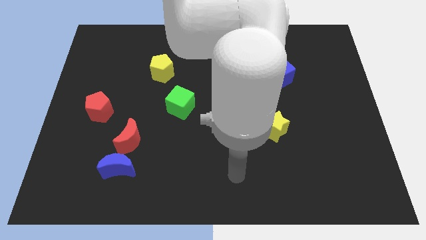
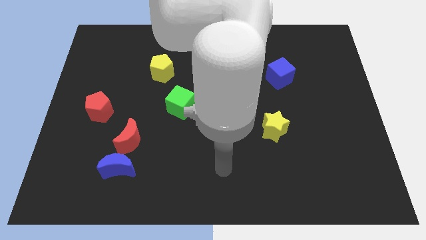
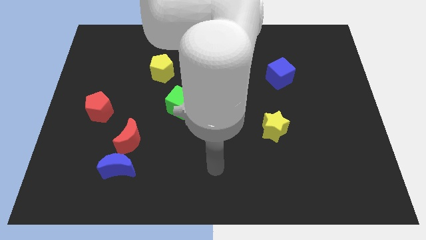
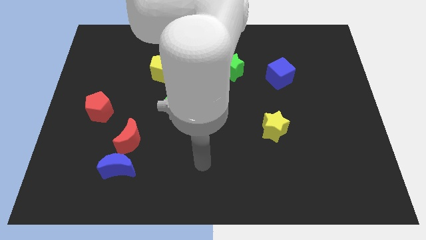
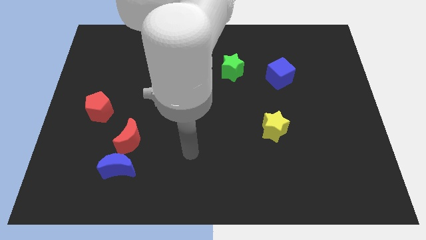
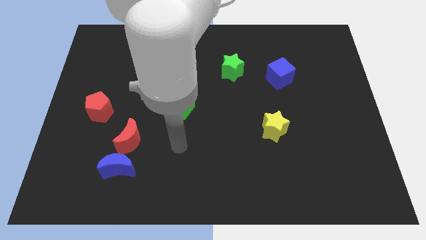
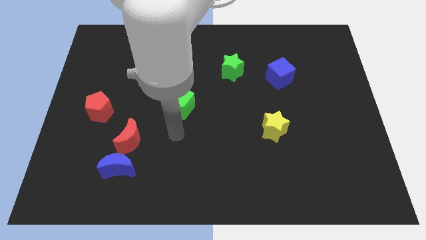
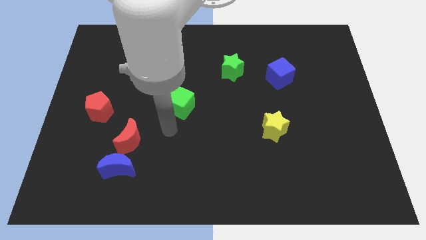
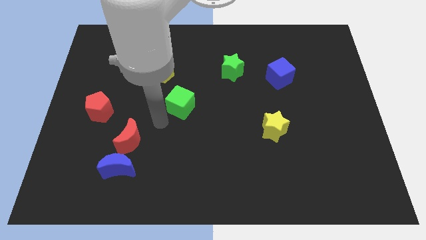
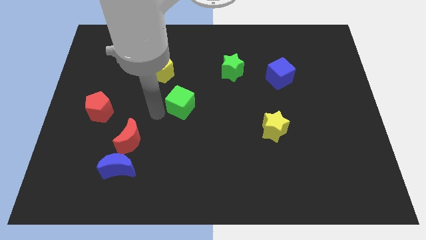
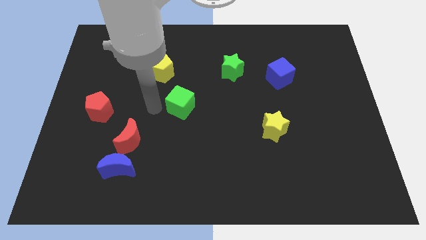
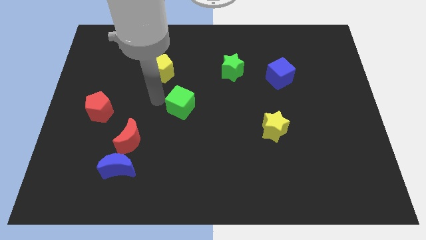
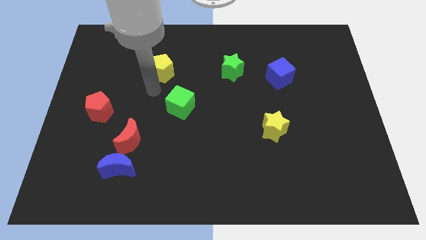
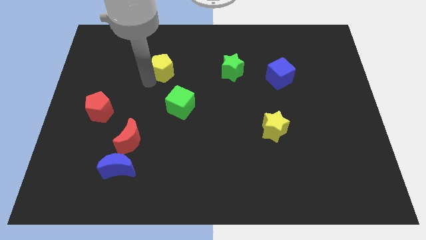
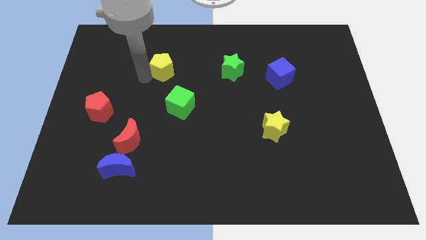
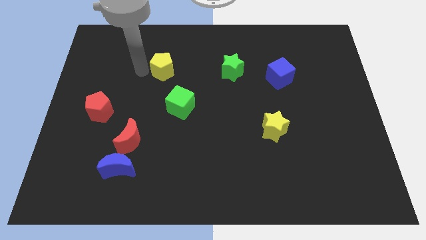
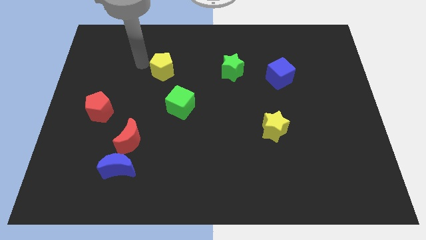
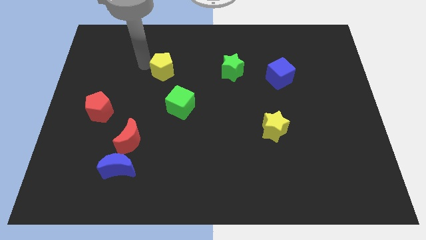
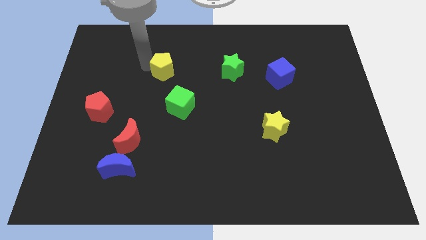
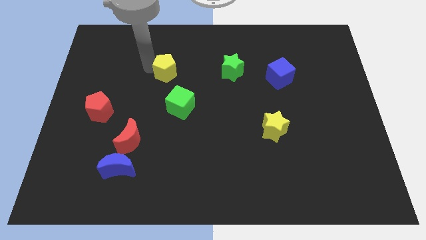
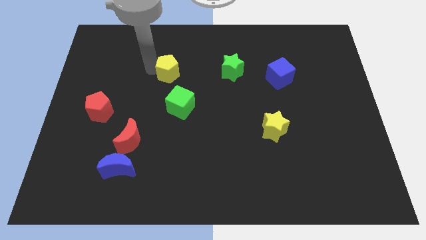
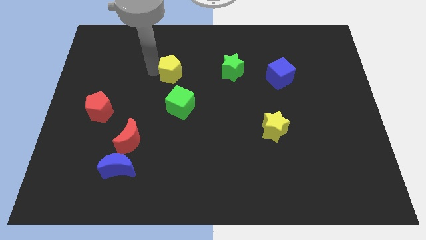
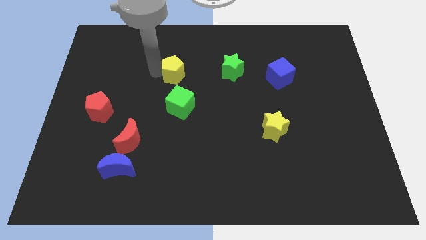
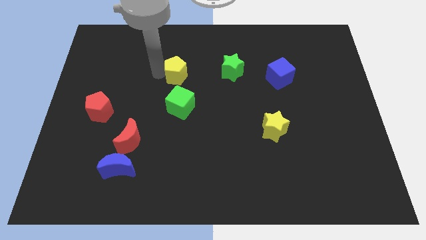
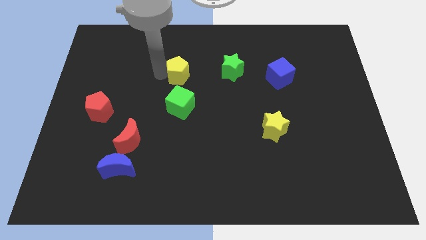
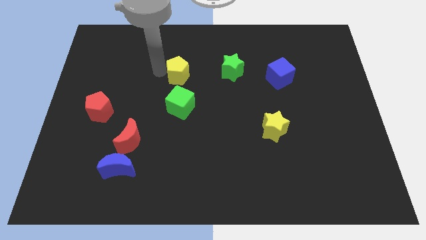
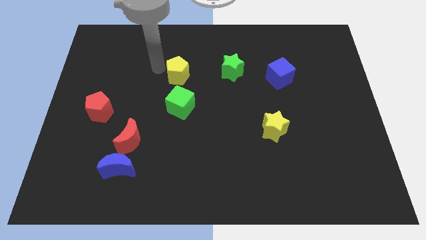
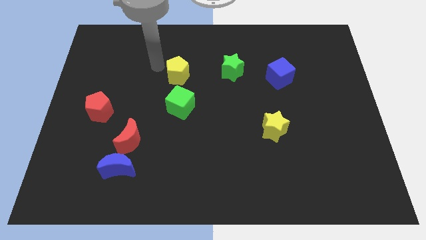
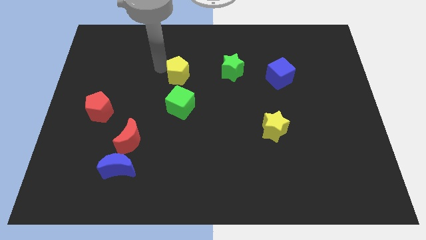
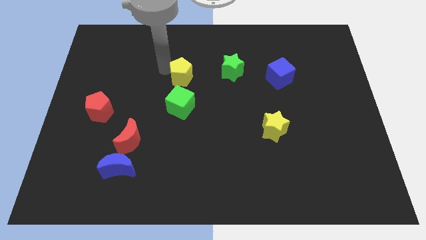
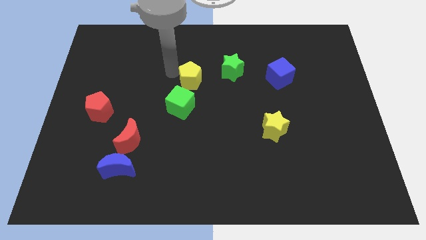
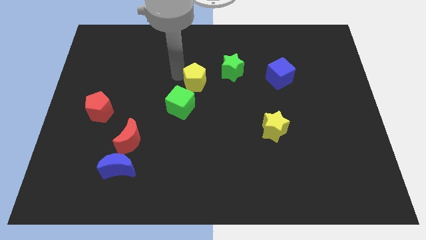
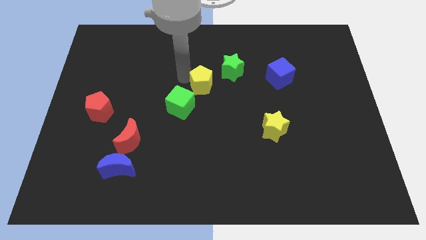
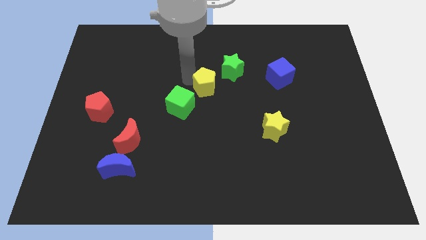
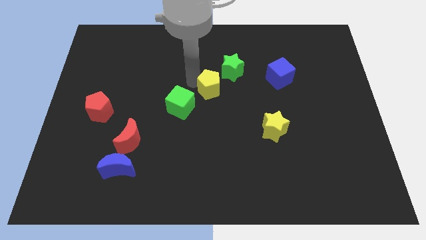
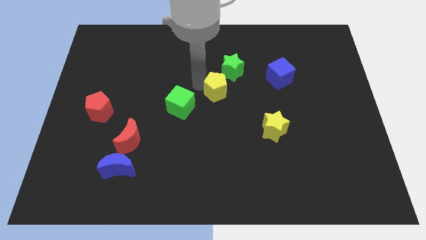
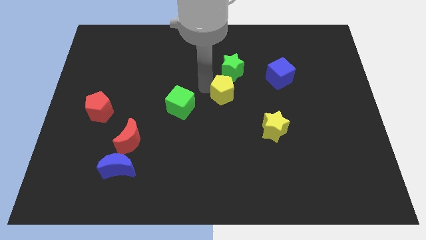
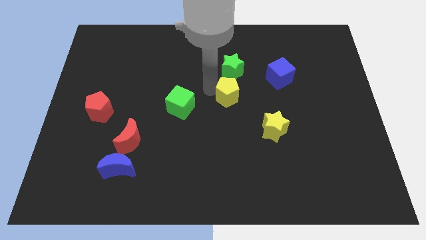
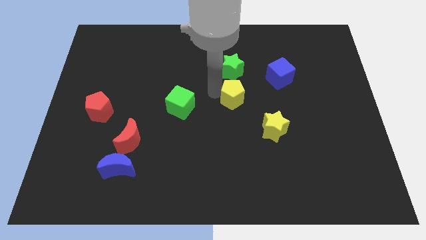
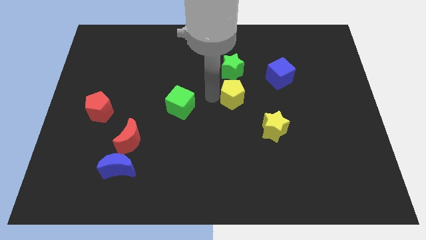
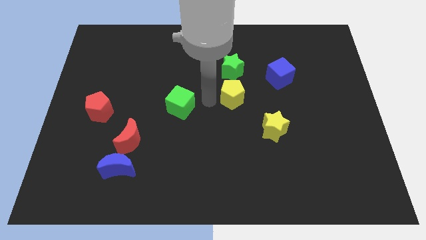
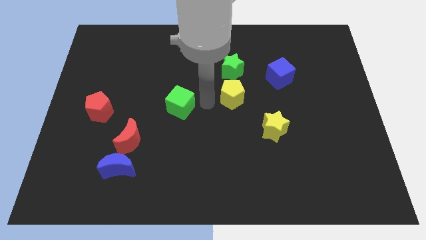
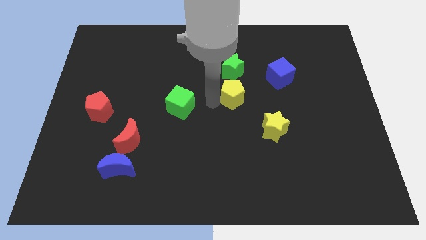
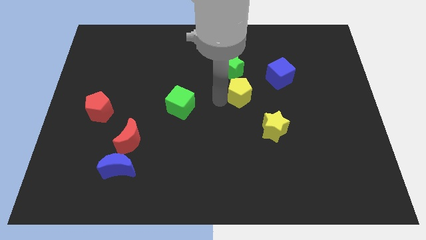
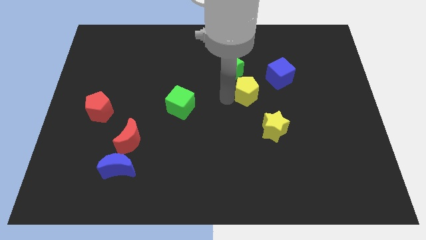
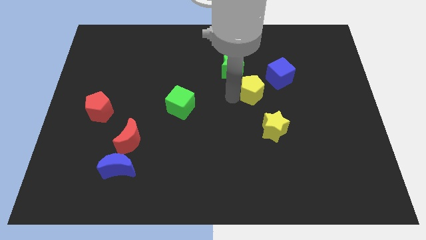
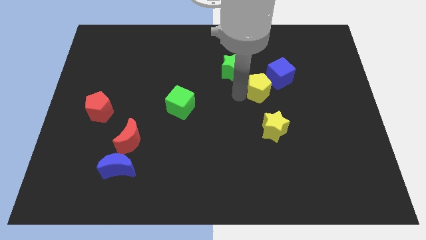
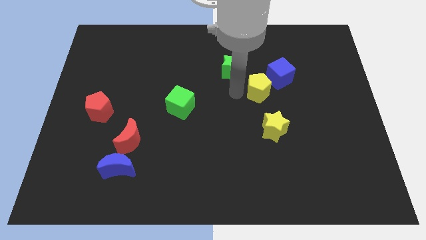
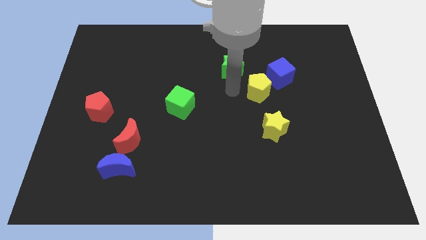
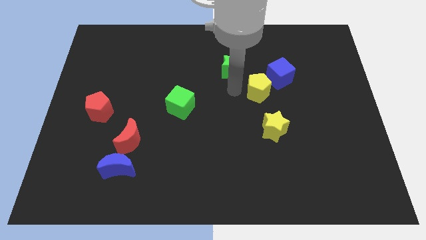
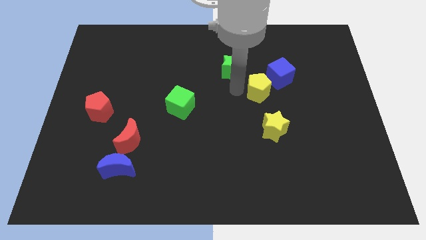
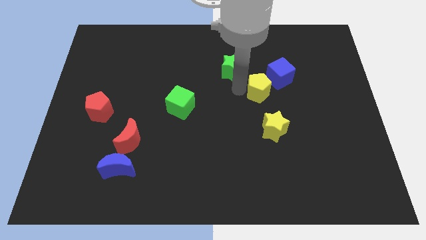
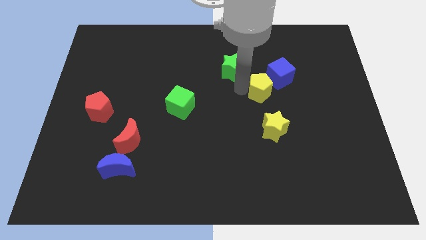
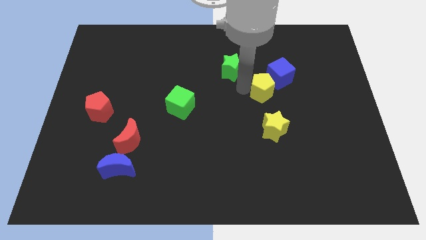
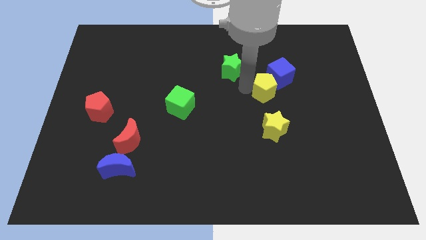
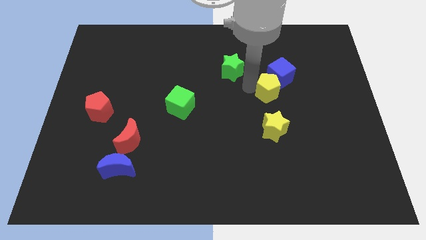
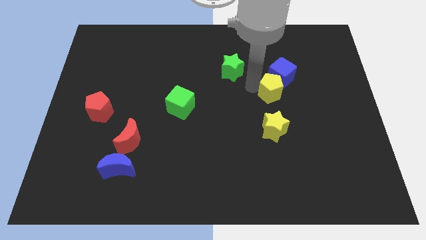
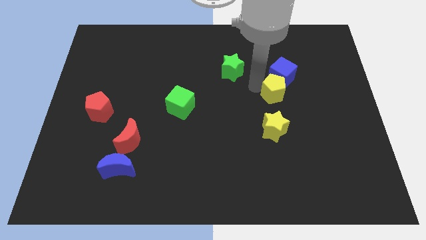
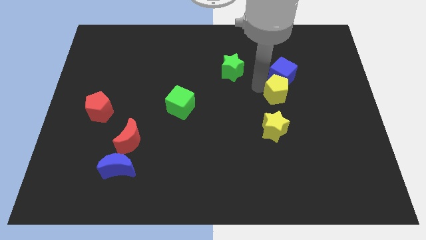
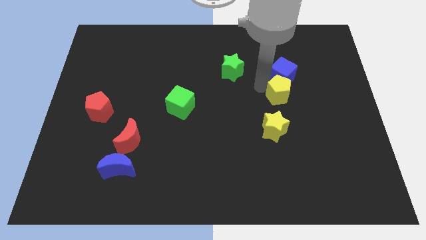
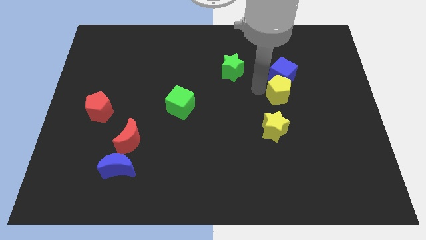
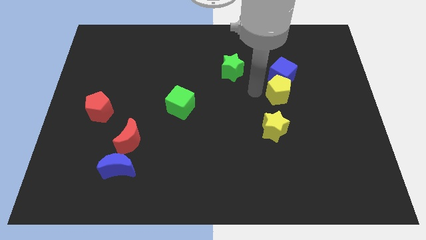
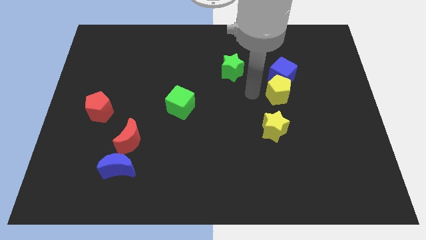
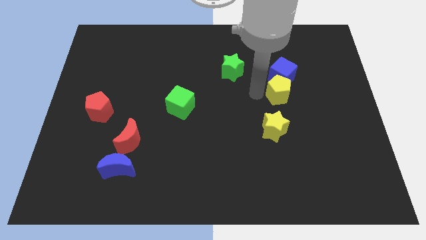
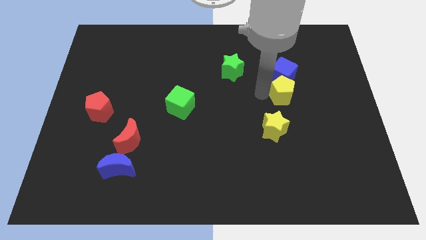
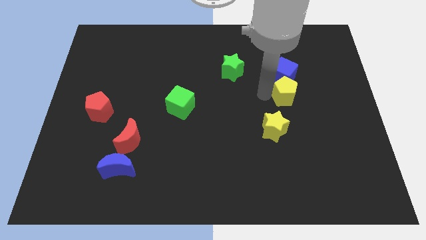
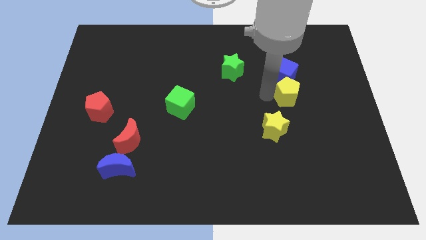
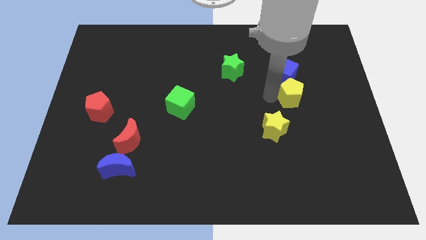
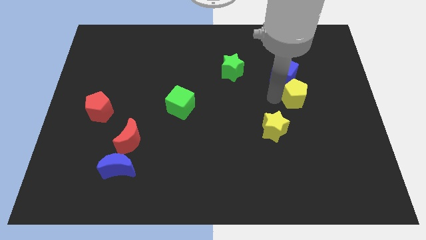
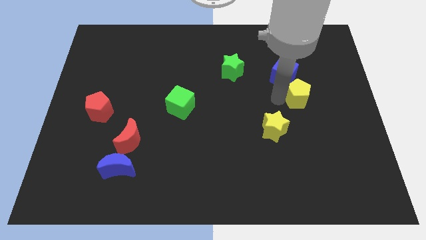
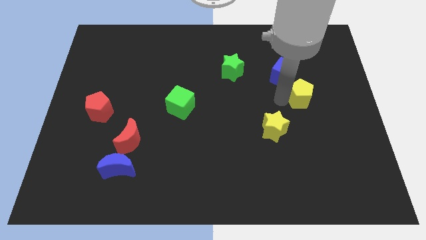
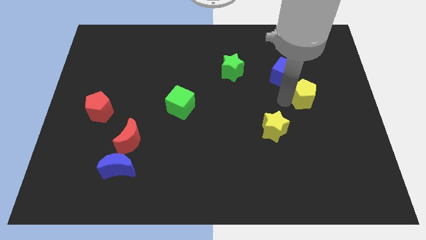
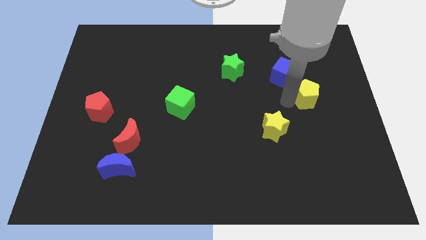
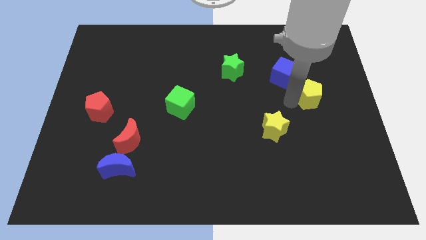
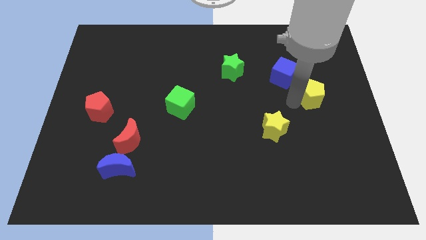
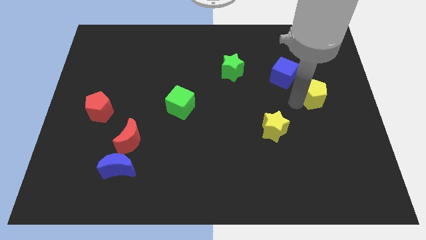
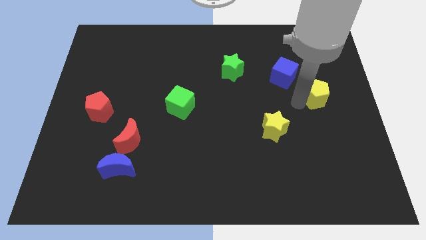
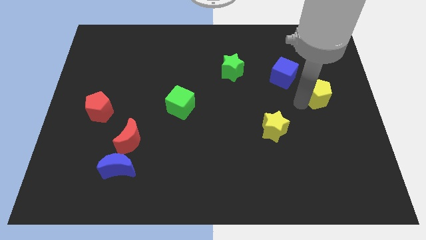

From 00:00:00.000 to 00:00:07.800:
slide the yellow pentagon to the center right
